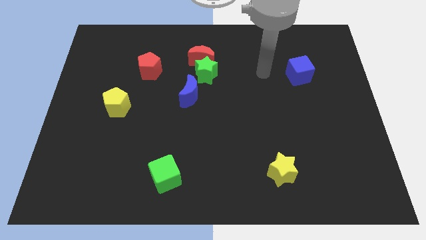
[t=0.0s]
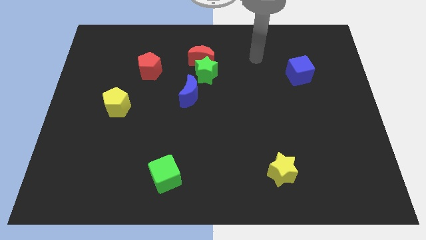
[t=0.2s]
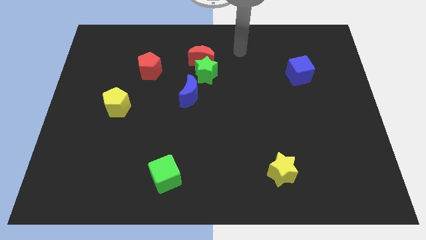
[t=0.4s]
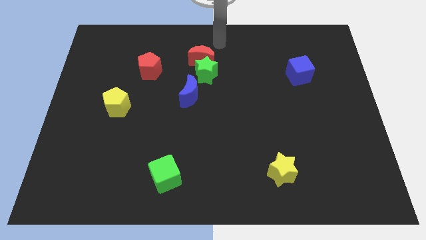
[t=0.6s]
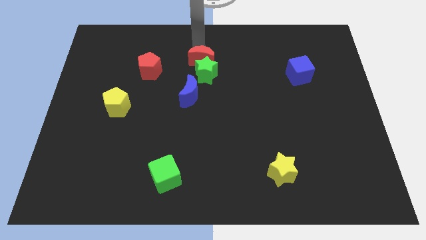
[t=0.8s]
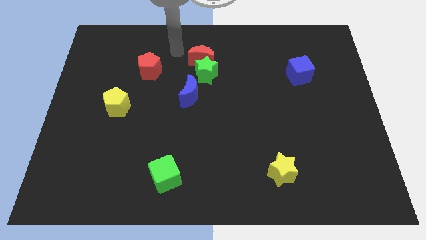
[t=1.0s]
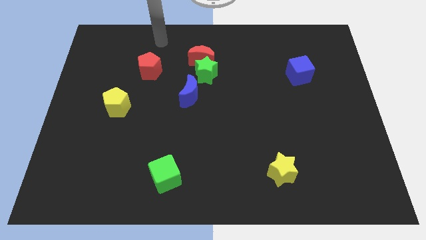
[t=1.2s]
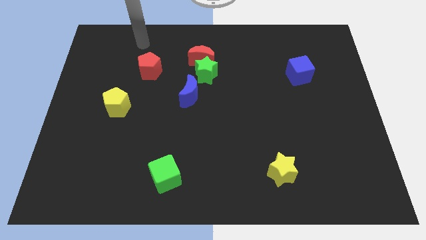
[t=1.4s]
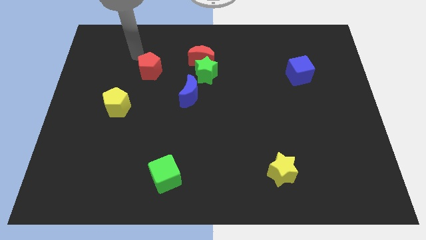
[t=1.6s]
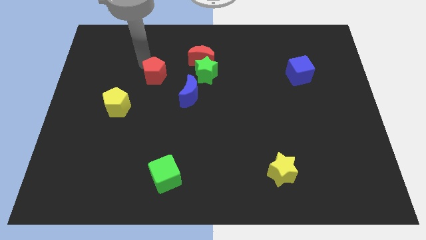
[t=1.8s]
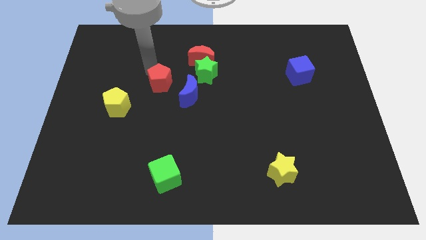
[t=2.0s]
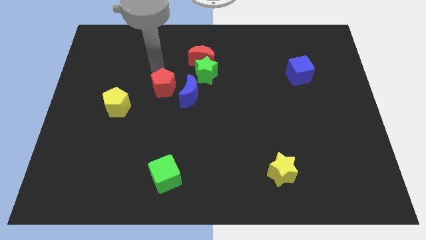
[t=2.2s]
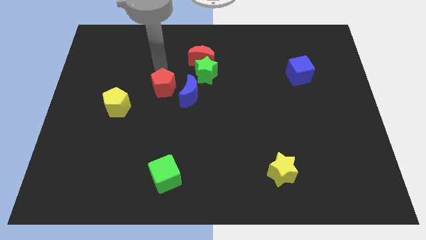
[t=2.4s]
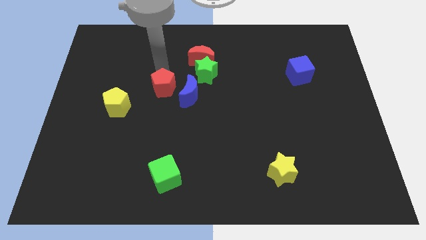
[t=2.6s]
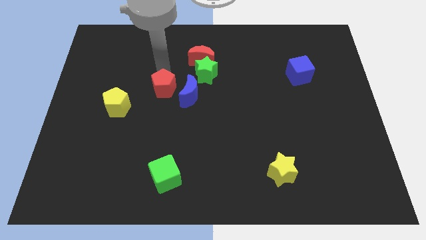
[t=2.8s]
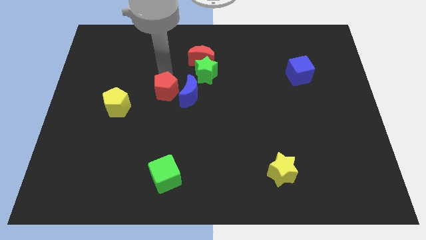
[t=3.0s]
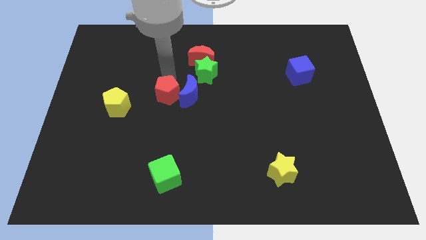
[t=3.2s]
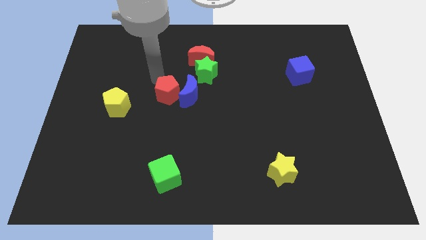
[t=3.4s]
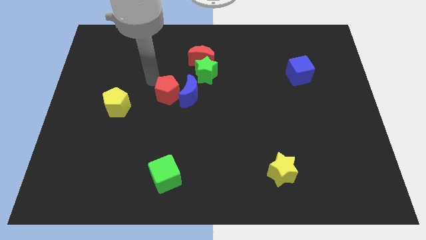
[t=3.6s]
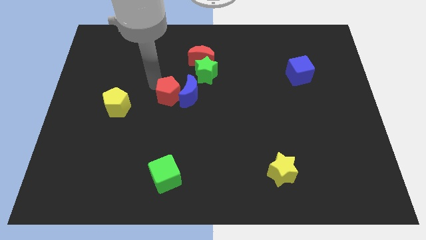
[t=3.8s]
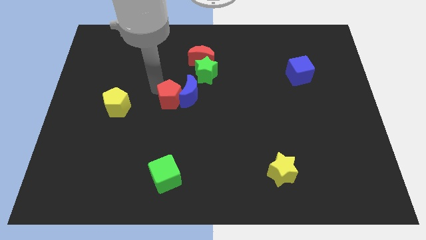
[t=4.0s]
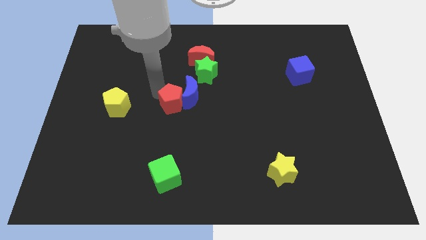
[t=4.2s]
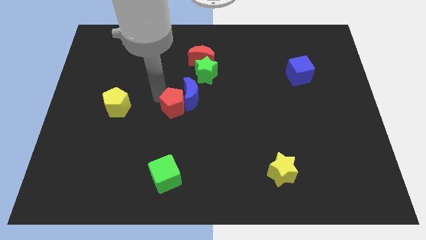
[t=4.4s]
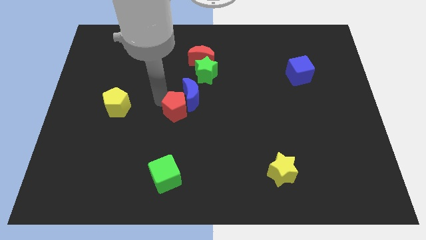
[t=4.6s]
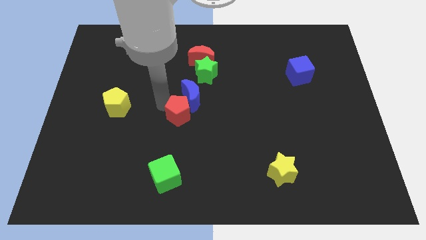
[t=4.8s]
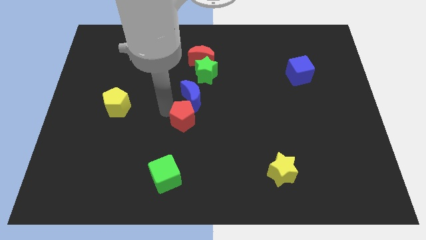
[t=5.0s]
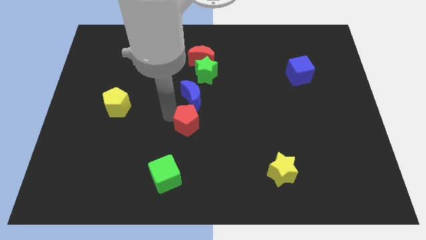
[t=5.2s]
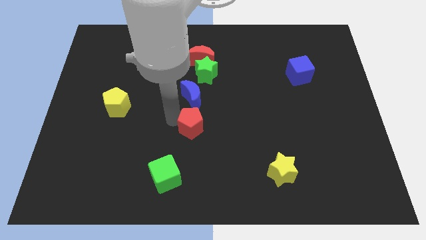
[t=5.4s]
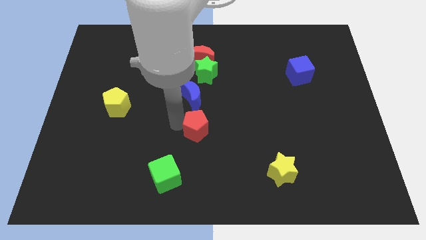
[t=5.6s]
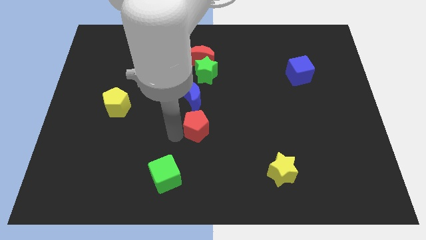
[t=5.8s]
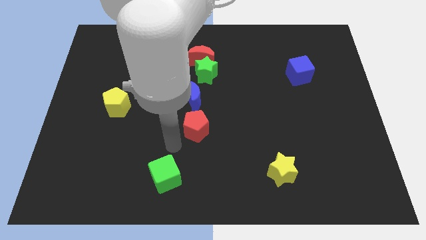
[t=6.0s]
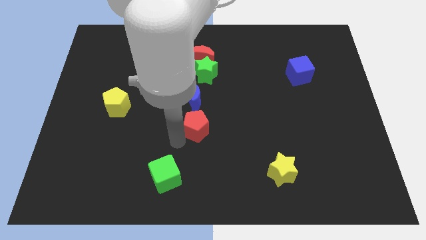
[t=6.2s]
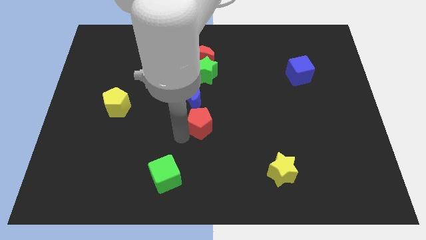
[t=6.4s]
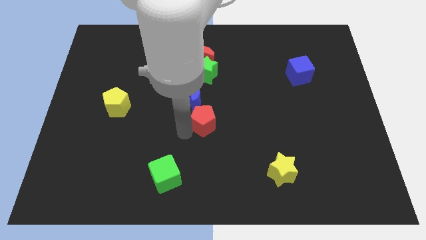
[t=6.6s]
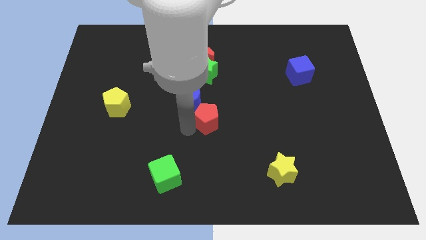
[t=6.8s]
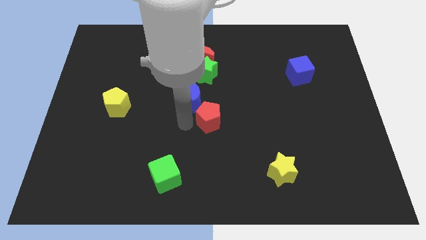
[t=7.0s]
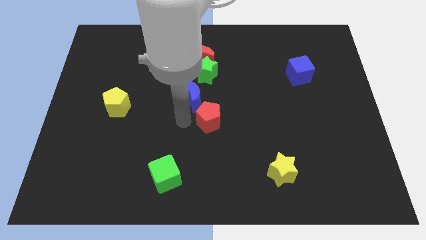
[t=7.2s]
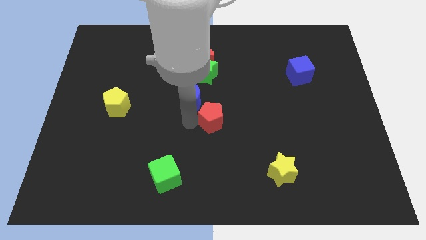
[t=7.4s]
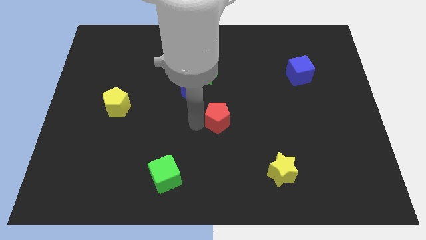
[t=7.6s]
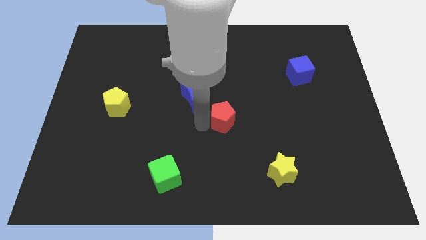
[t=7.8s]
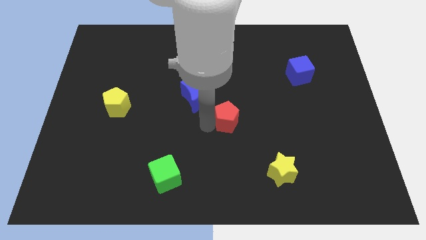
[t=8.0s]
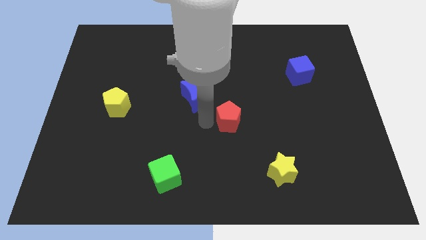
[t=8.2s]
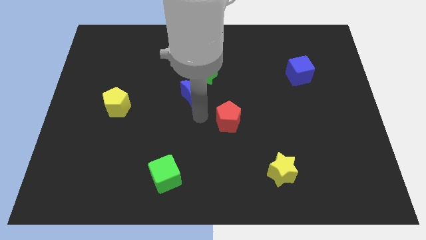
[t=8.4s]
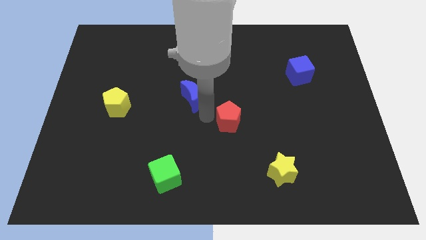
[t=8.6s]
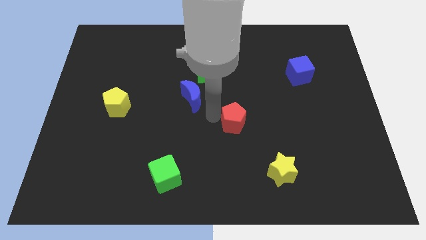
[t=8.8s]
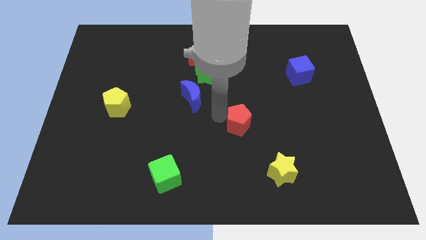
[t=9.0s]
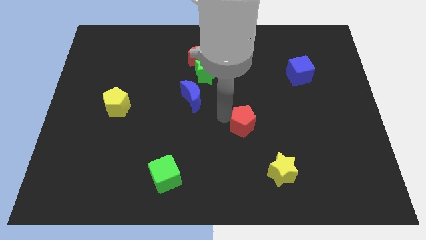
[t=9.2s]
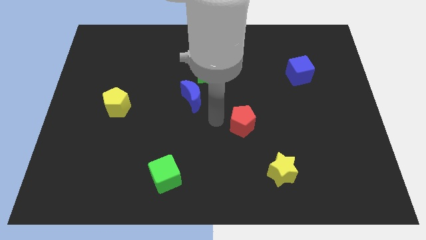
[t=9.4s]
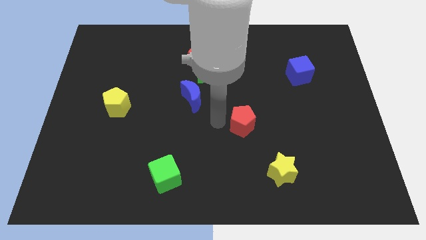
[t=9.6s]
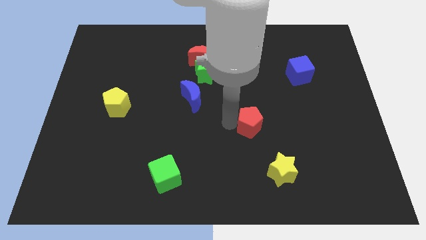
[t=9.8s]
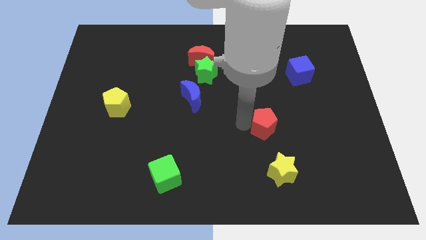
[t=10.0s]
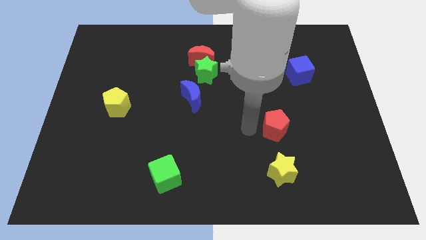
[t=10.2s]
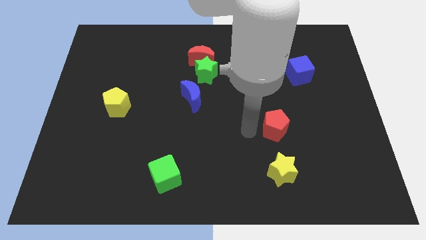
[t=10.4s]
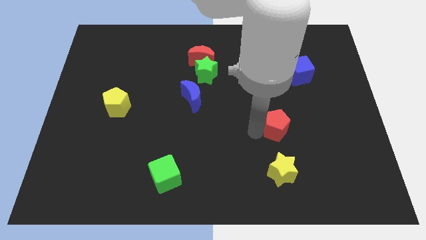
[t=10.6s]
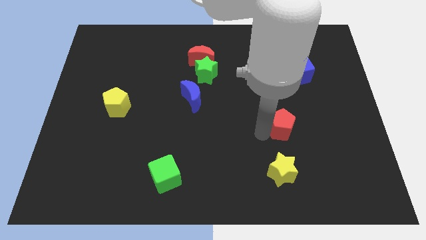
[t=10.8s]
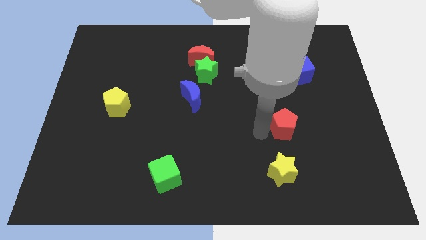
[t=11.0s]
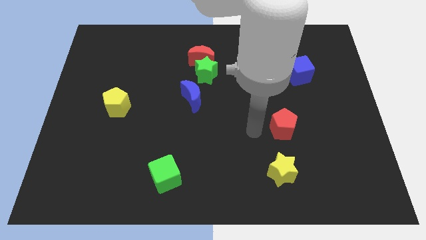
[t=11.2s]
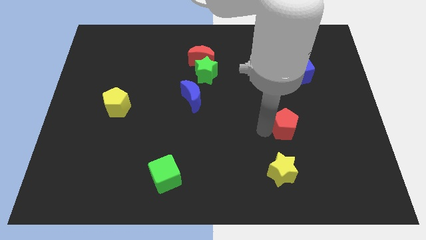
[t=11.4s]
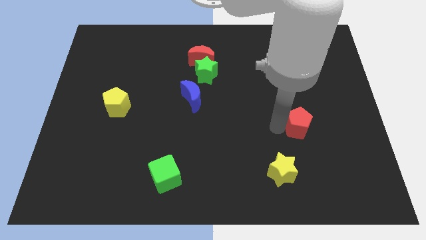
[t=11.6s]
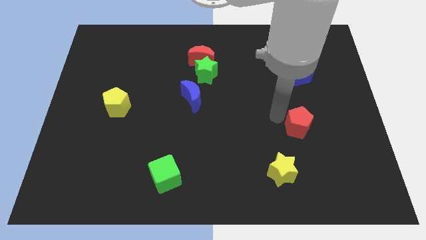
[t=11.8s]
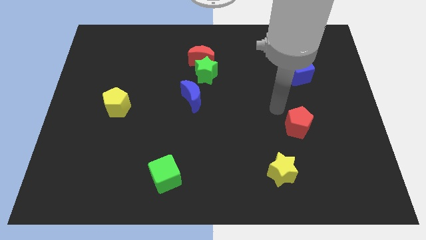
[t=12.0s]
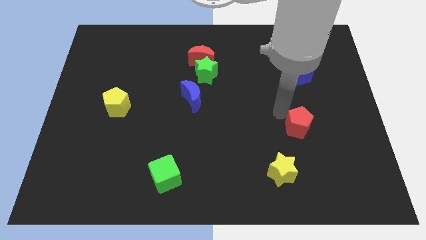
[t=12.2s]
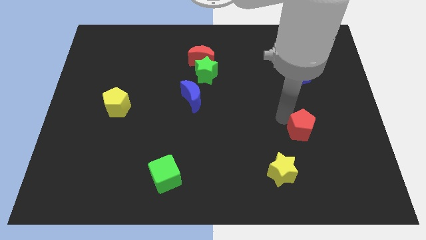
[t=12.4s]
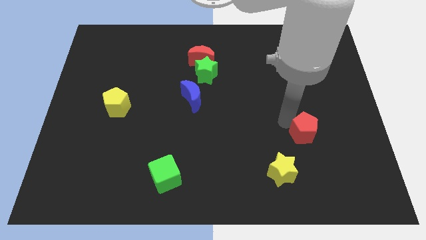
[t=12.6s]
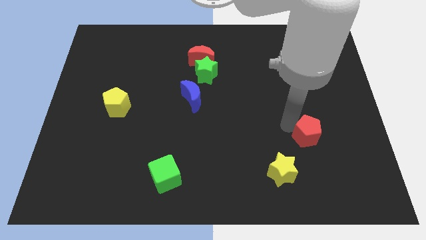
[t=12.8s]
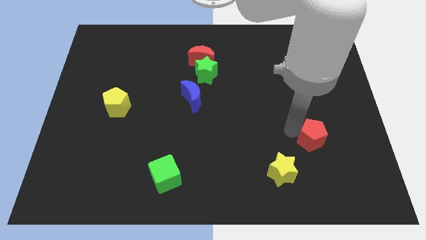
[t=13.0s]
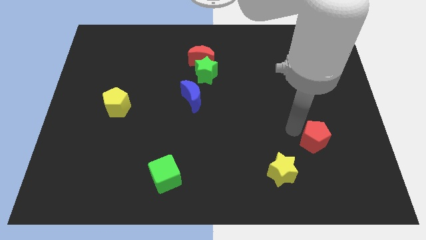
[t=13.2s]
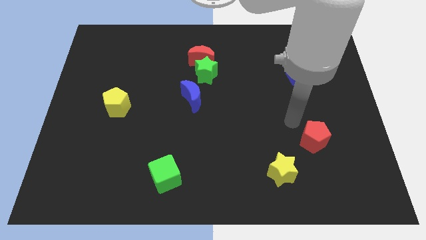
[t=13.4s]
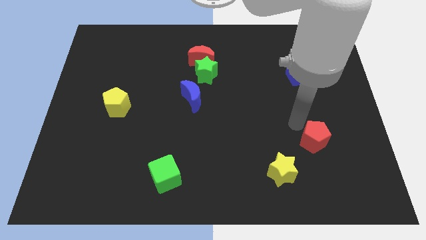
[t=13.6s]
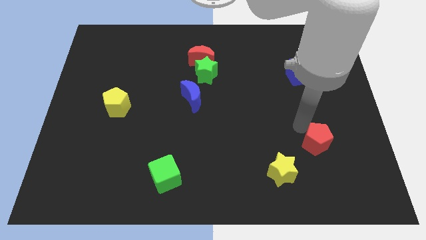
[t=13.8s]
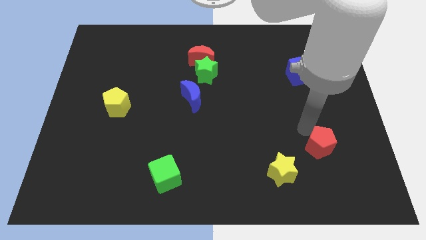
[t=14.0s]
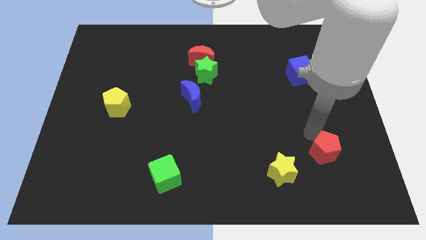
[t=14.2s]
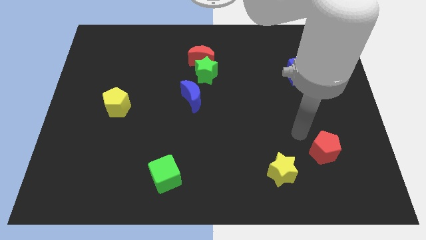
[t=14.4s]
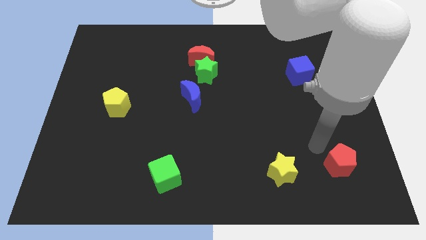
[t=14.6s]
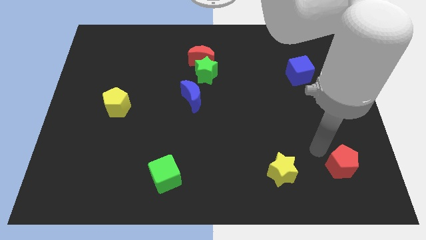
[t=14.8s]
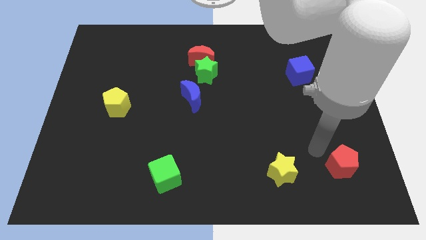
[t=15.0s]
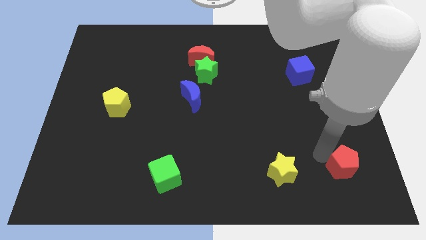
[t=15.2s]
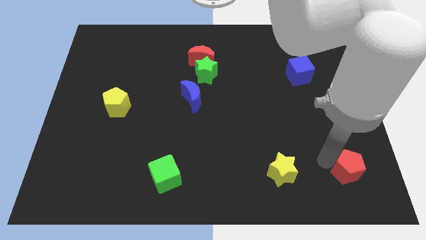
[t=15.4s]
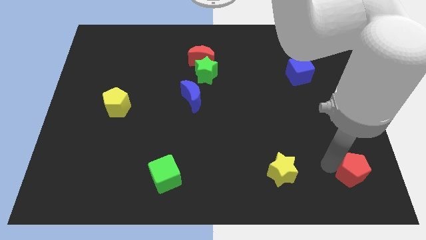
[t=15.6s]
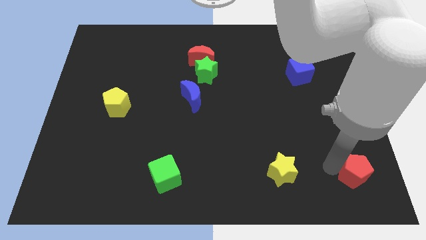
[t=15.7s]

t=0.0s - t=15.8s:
slide the red pentagon to the bottom right
